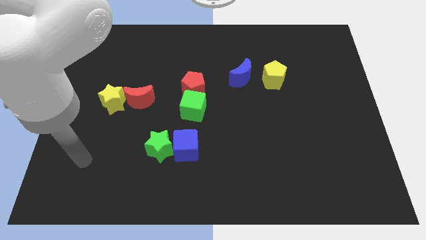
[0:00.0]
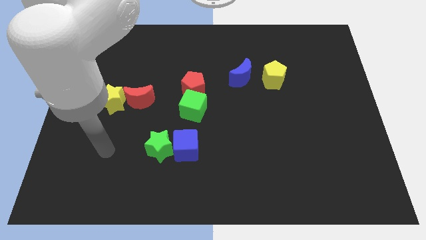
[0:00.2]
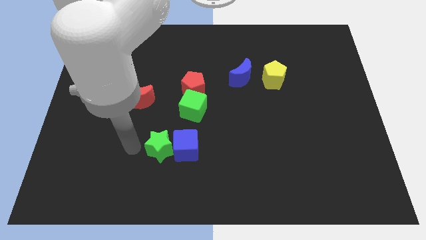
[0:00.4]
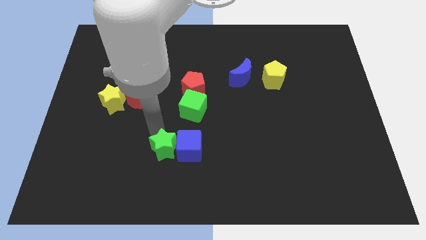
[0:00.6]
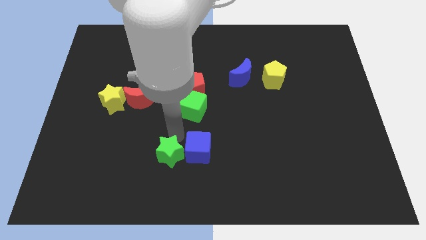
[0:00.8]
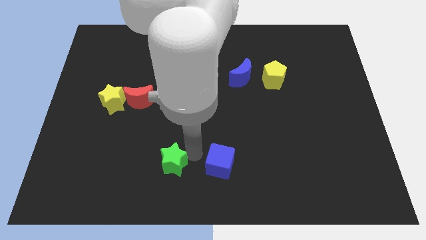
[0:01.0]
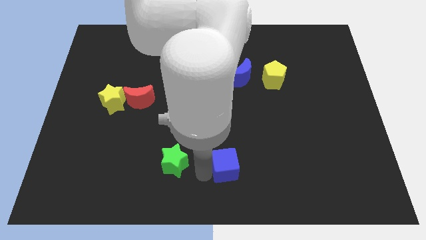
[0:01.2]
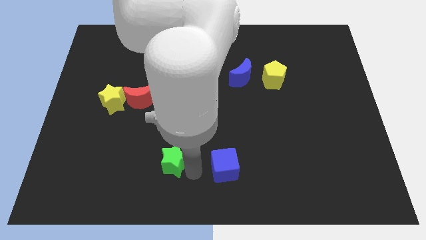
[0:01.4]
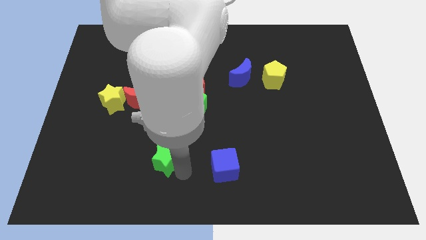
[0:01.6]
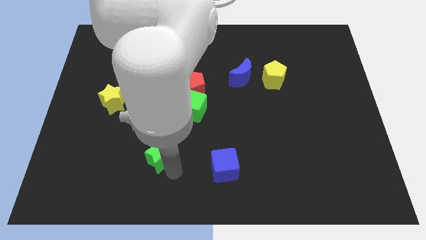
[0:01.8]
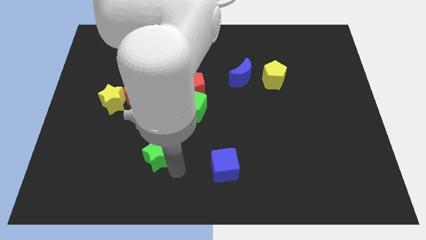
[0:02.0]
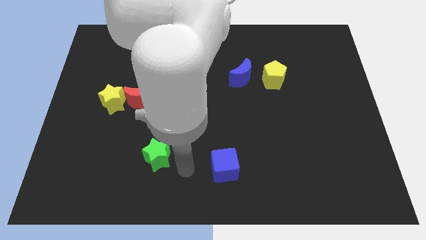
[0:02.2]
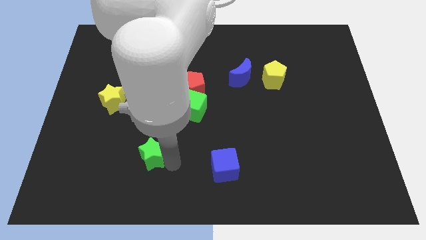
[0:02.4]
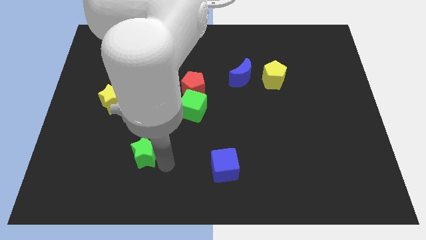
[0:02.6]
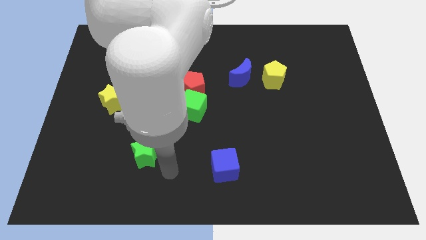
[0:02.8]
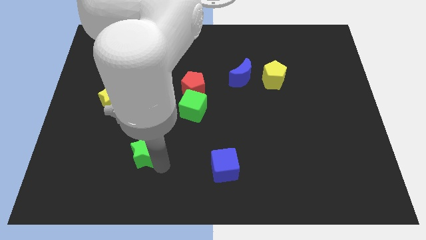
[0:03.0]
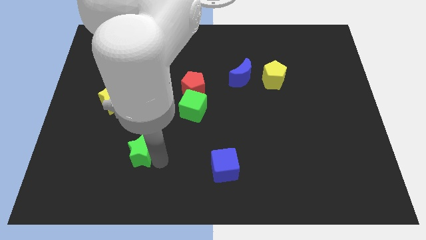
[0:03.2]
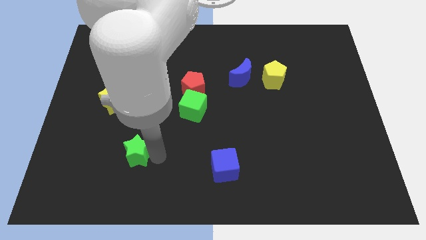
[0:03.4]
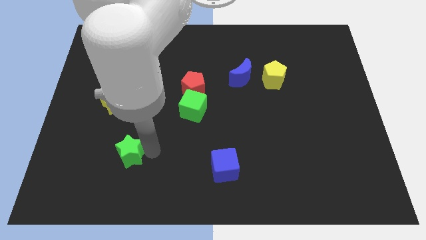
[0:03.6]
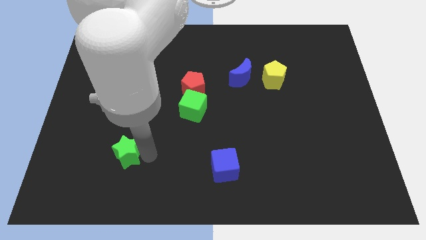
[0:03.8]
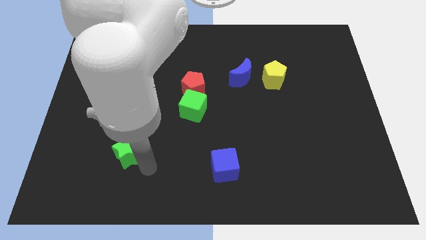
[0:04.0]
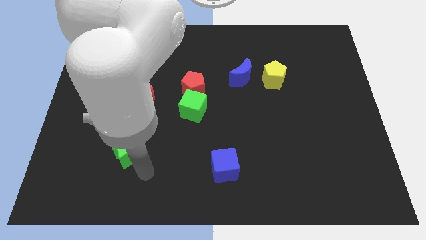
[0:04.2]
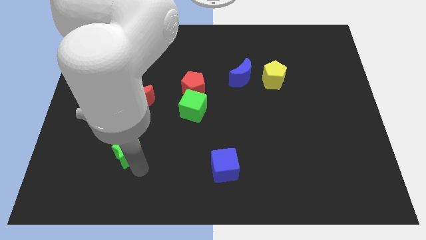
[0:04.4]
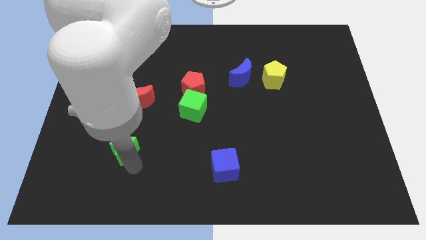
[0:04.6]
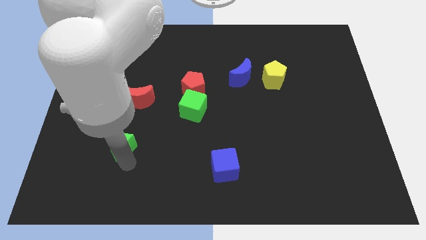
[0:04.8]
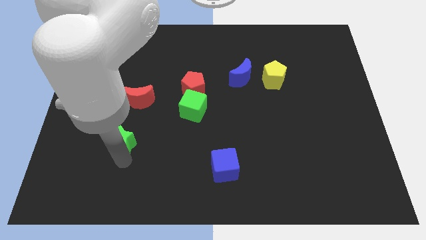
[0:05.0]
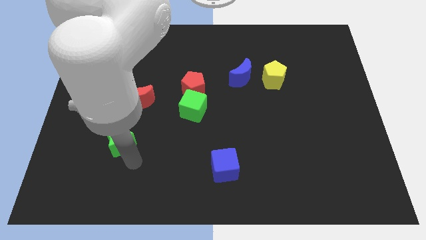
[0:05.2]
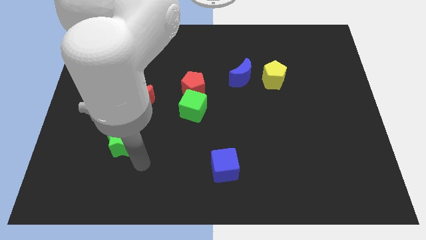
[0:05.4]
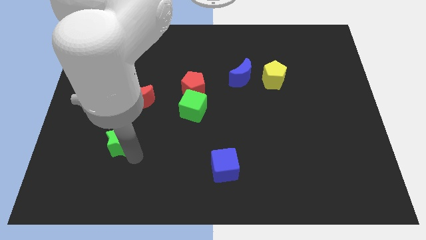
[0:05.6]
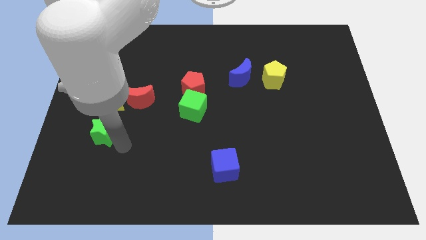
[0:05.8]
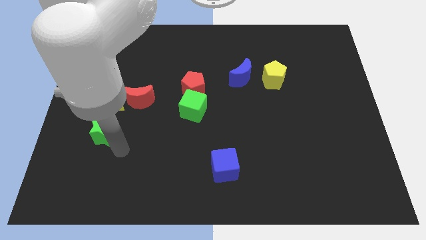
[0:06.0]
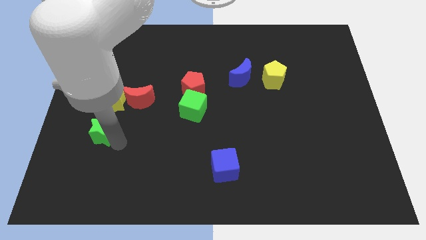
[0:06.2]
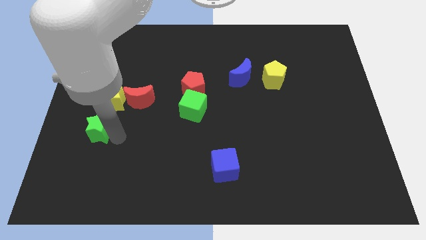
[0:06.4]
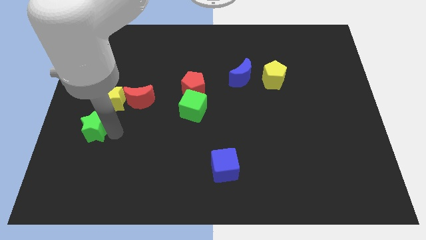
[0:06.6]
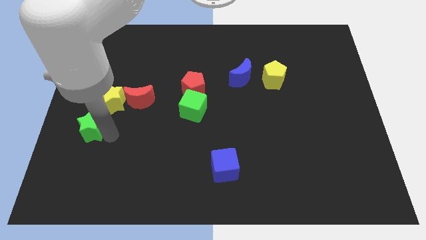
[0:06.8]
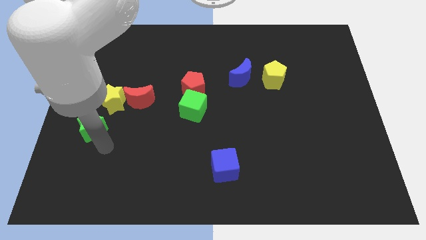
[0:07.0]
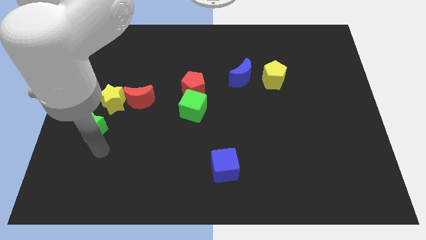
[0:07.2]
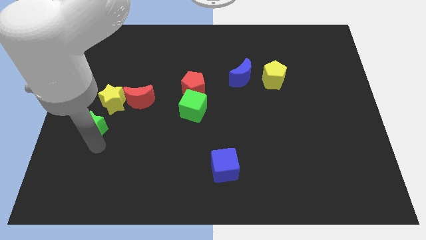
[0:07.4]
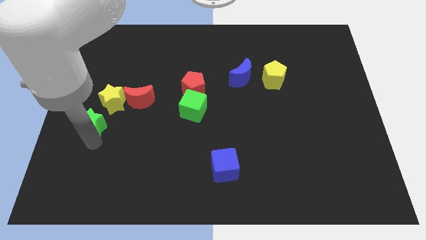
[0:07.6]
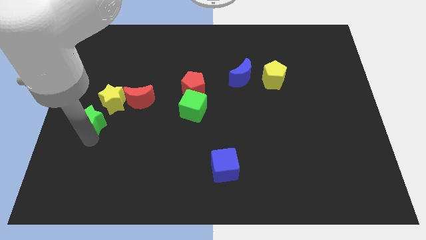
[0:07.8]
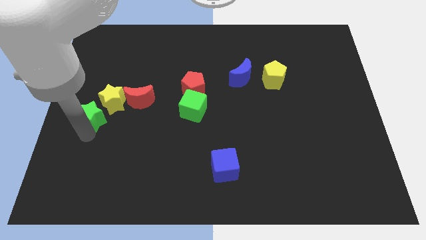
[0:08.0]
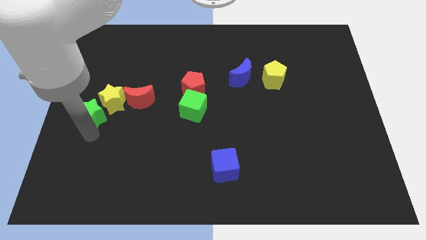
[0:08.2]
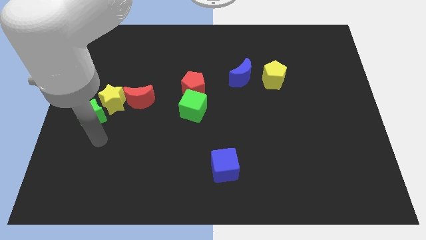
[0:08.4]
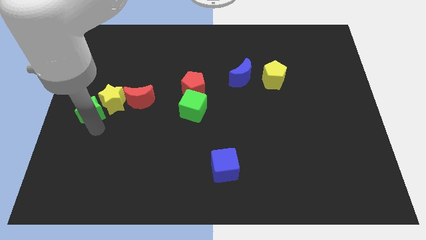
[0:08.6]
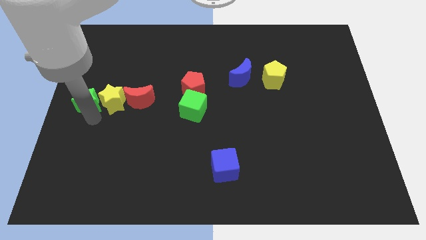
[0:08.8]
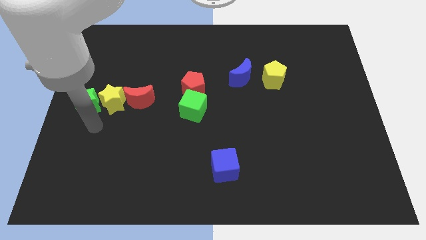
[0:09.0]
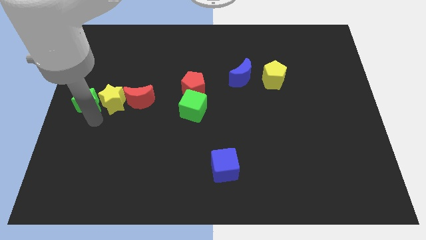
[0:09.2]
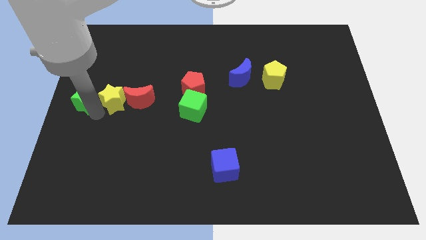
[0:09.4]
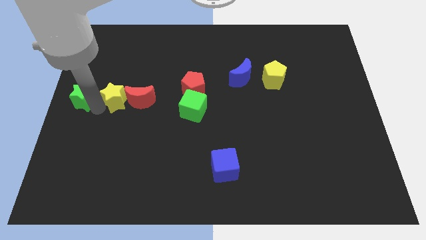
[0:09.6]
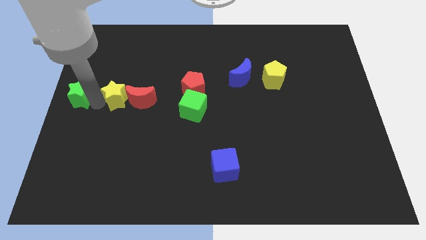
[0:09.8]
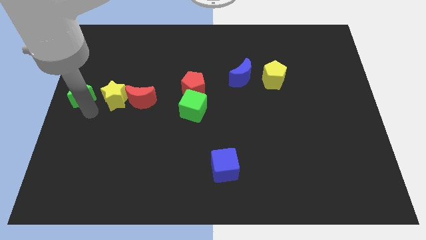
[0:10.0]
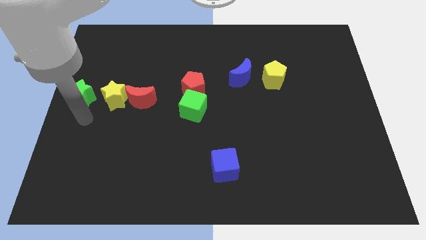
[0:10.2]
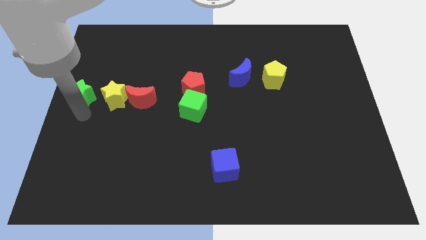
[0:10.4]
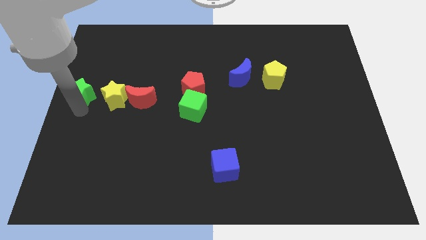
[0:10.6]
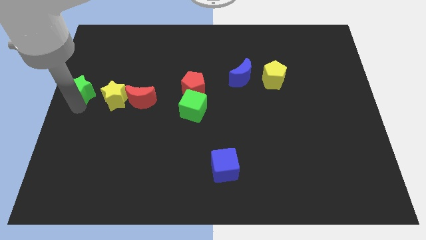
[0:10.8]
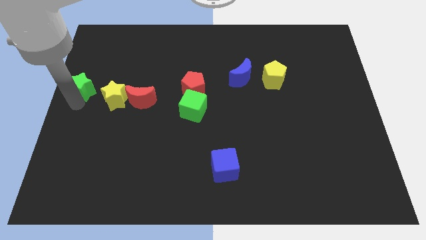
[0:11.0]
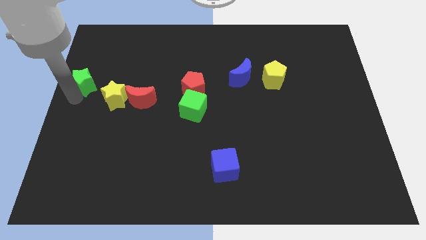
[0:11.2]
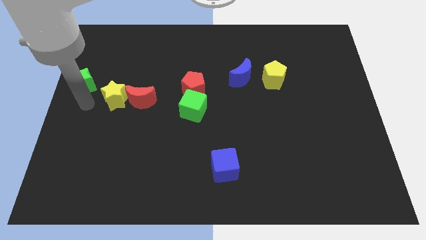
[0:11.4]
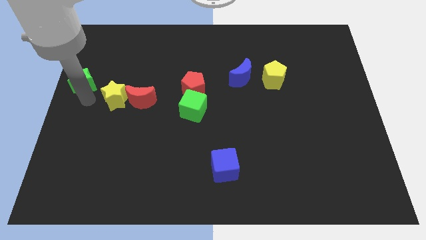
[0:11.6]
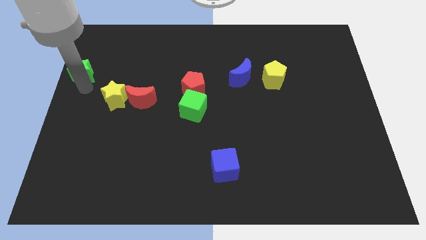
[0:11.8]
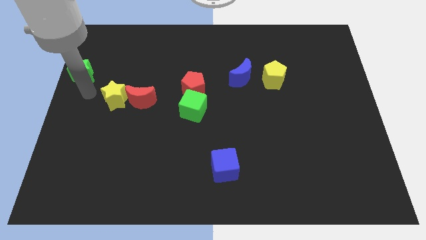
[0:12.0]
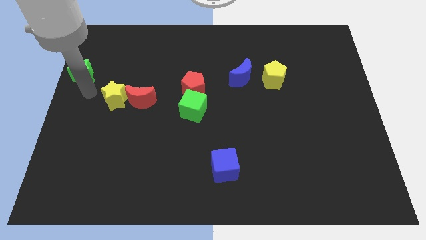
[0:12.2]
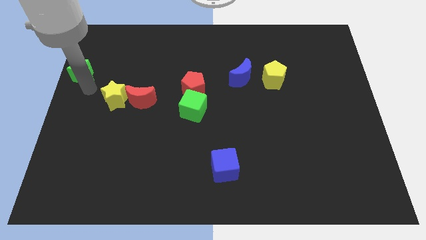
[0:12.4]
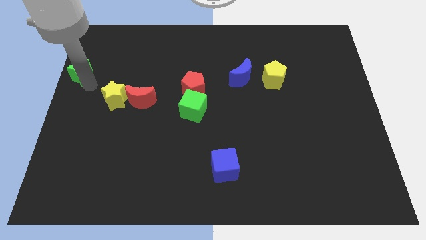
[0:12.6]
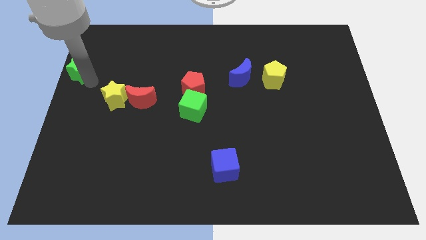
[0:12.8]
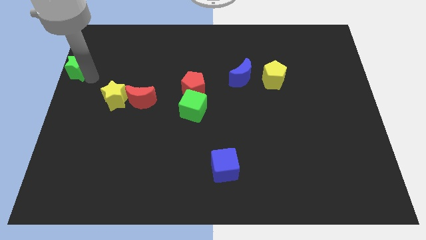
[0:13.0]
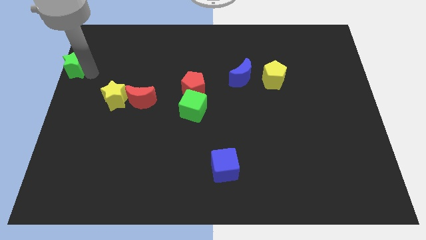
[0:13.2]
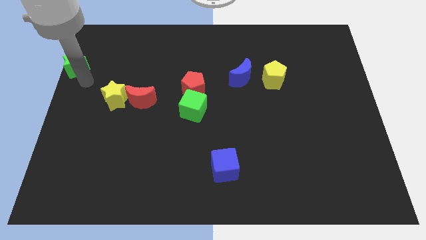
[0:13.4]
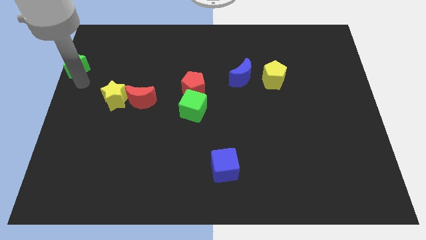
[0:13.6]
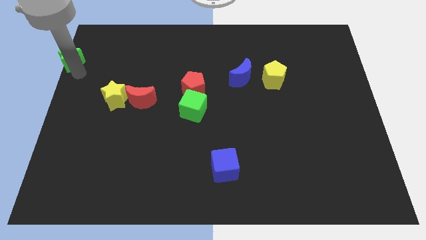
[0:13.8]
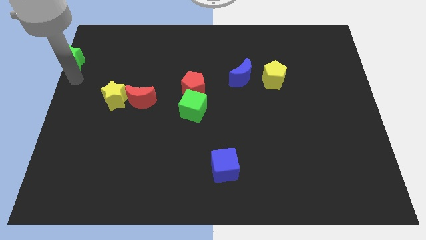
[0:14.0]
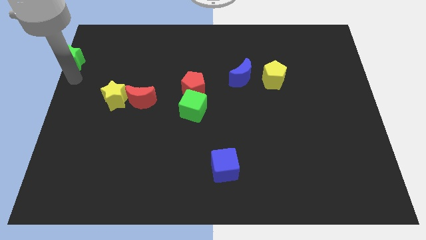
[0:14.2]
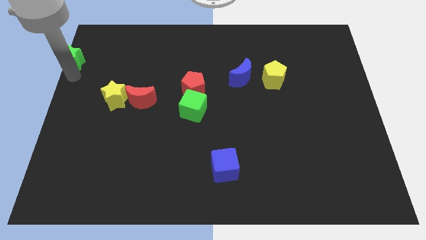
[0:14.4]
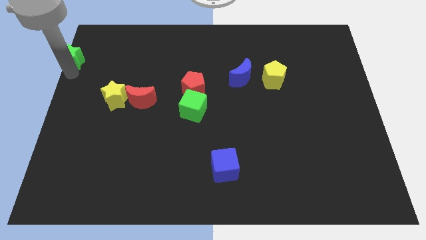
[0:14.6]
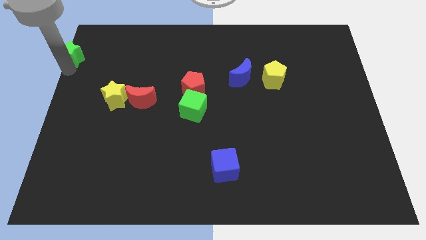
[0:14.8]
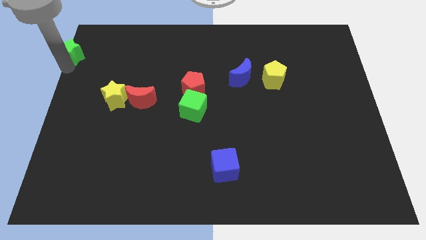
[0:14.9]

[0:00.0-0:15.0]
slide the green star to the top left of the board

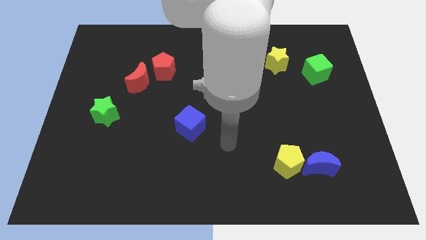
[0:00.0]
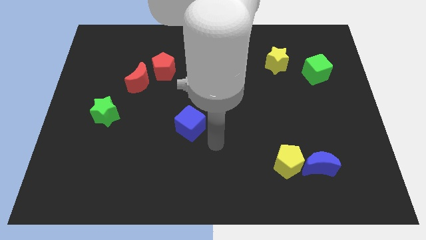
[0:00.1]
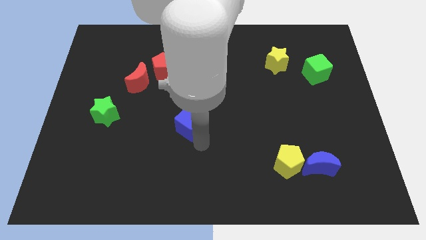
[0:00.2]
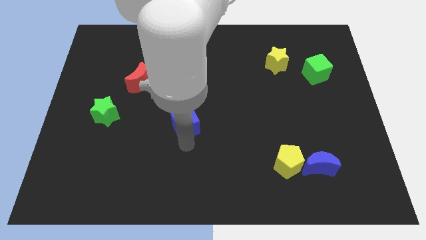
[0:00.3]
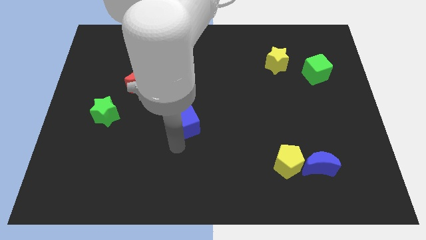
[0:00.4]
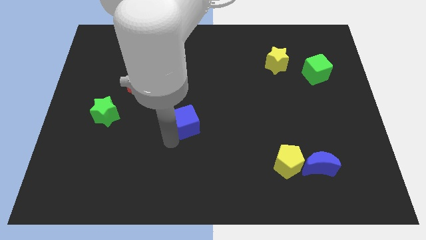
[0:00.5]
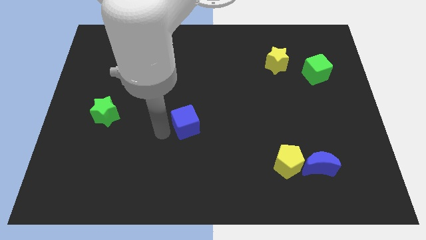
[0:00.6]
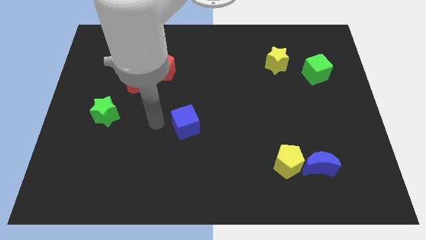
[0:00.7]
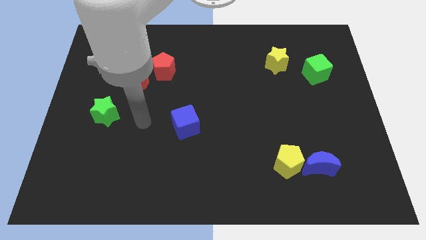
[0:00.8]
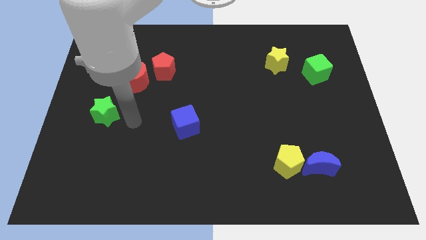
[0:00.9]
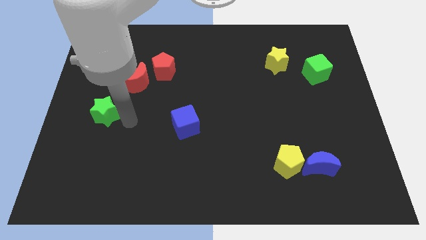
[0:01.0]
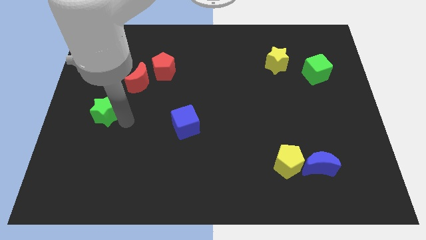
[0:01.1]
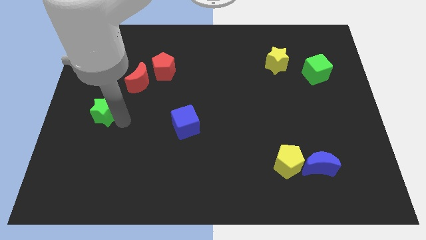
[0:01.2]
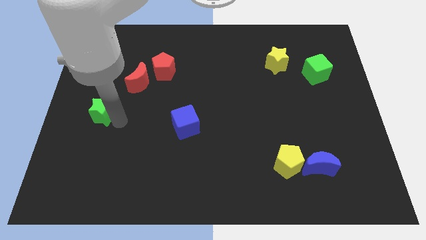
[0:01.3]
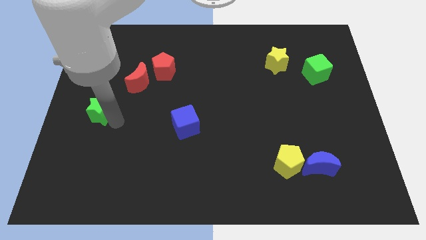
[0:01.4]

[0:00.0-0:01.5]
put the green star to the left side
